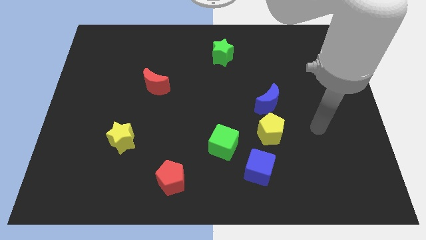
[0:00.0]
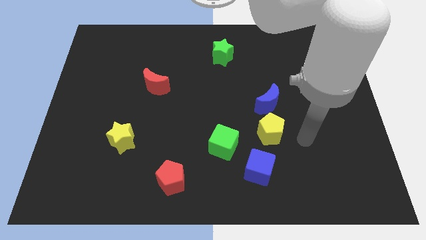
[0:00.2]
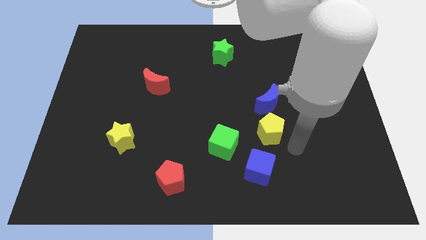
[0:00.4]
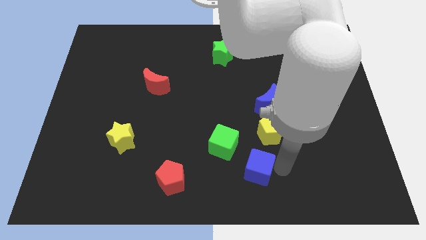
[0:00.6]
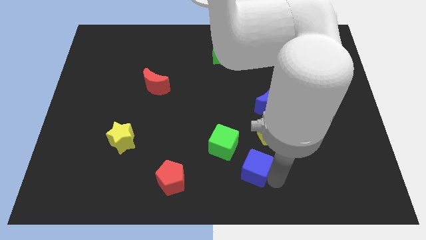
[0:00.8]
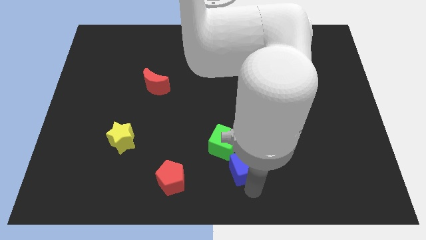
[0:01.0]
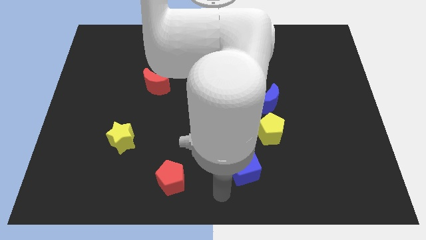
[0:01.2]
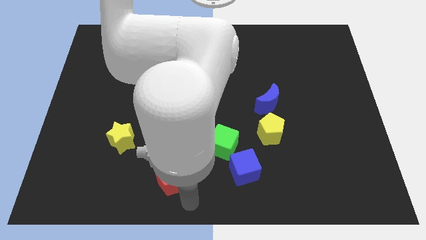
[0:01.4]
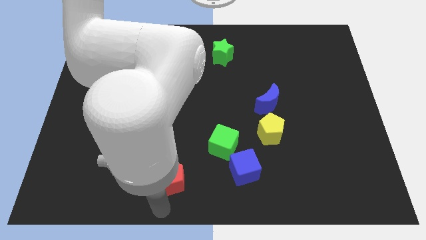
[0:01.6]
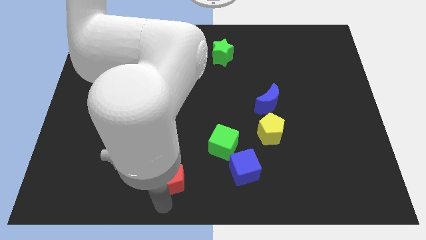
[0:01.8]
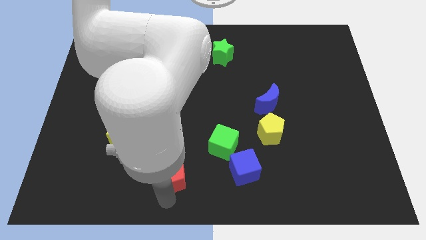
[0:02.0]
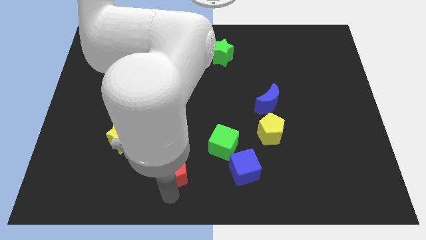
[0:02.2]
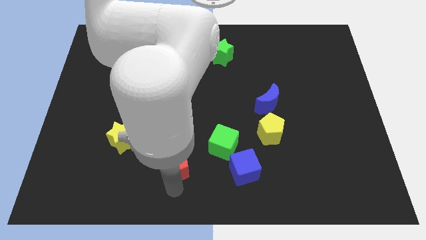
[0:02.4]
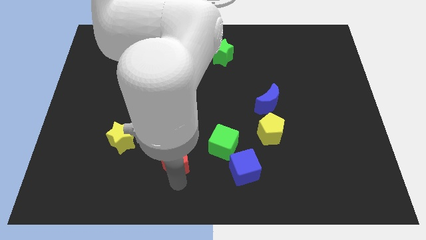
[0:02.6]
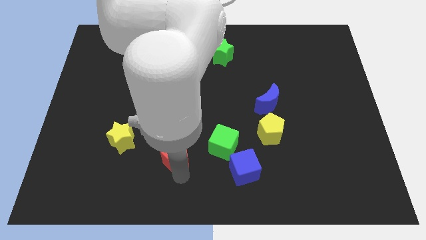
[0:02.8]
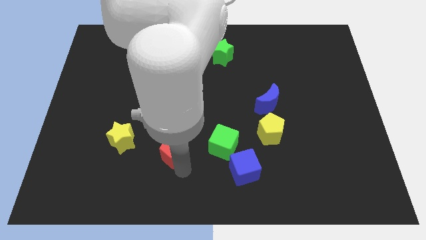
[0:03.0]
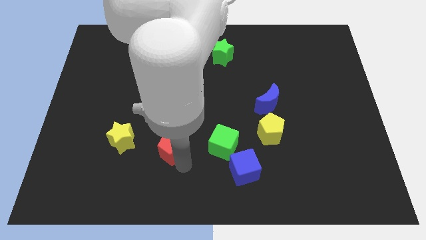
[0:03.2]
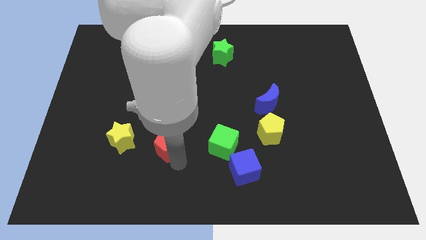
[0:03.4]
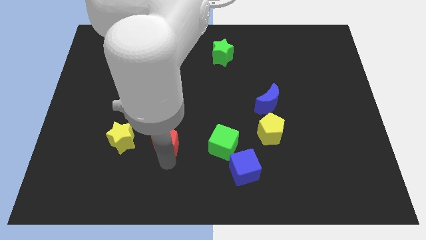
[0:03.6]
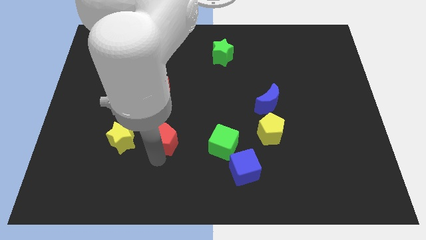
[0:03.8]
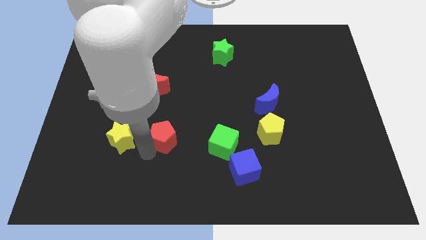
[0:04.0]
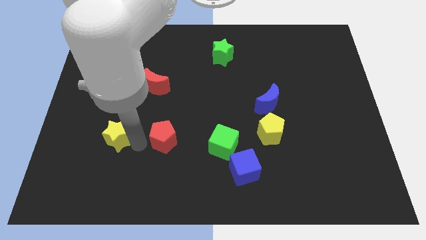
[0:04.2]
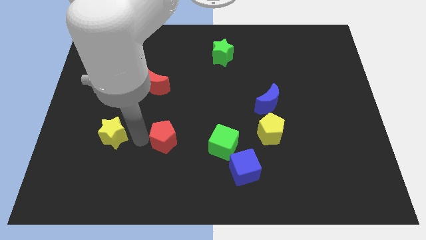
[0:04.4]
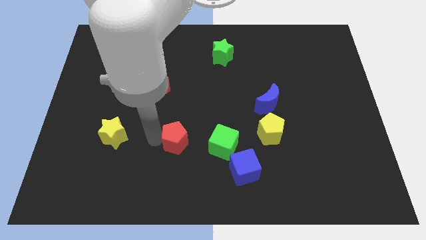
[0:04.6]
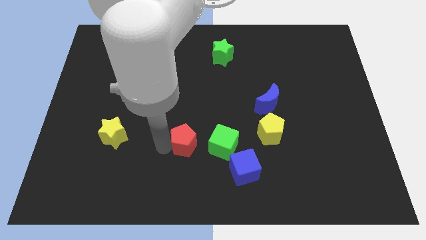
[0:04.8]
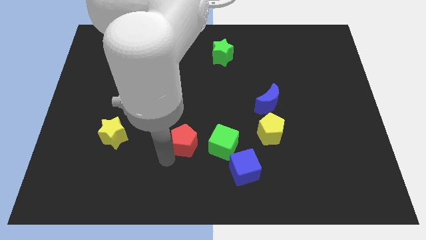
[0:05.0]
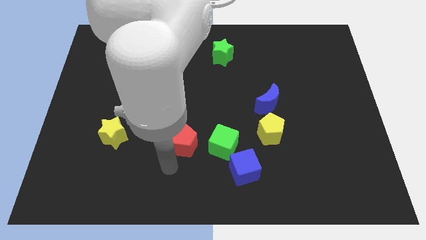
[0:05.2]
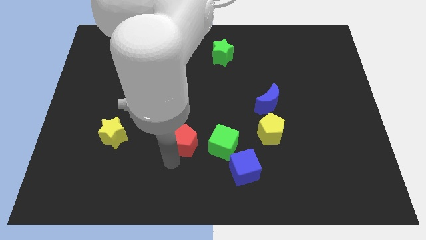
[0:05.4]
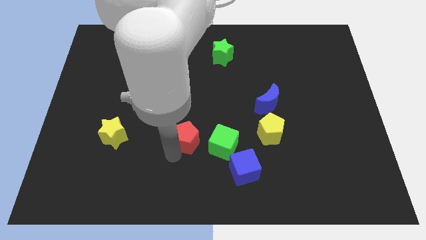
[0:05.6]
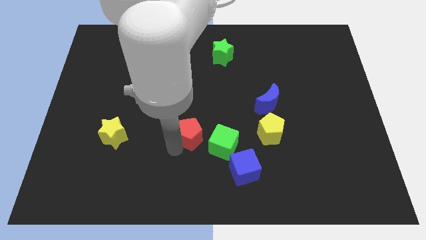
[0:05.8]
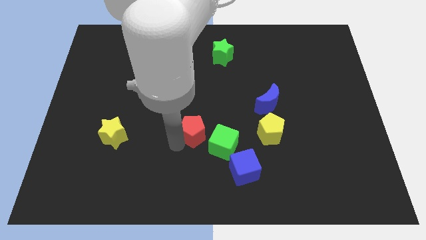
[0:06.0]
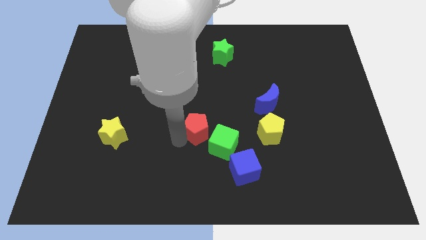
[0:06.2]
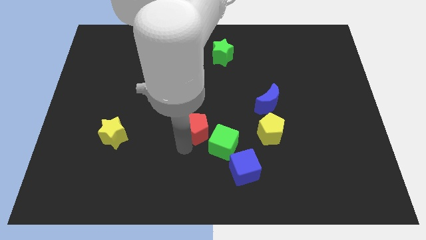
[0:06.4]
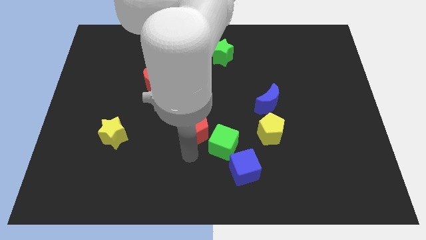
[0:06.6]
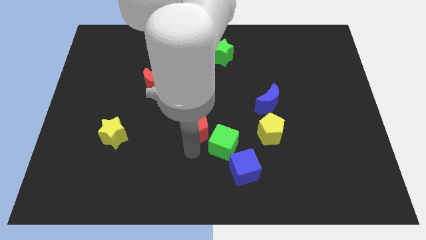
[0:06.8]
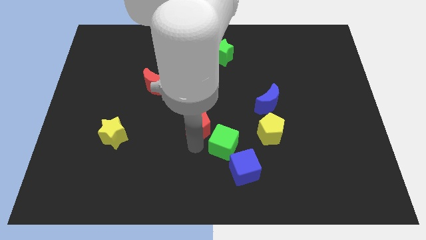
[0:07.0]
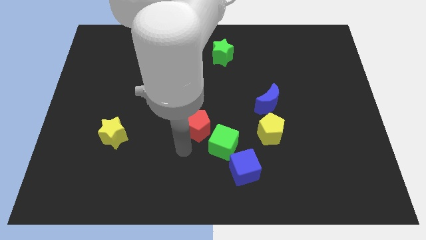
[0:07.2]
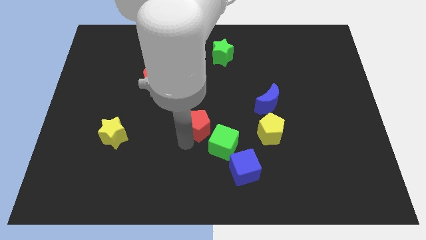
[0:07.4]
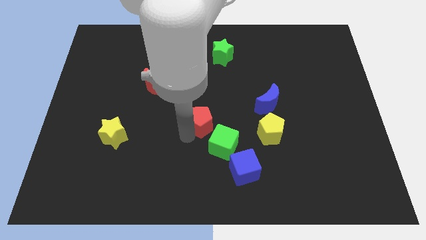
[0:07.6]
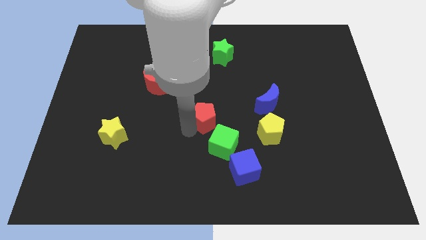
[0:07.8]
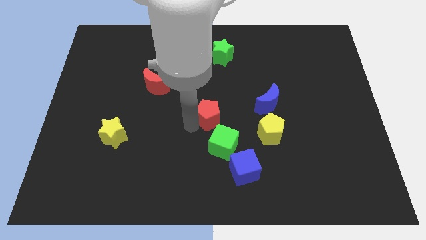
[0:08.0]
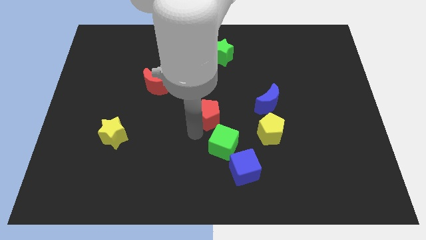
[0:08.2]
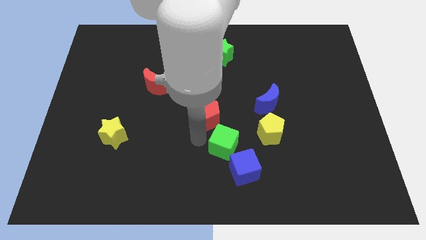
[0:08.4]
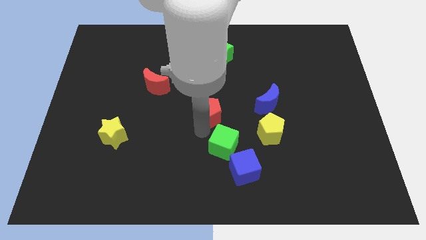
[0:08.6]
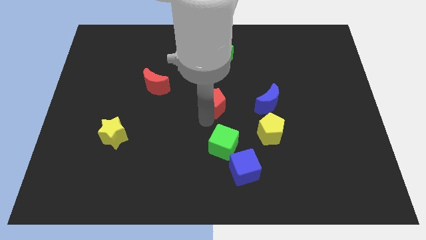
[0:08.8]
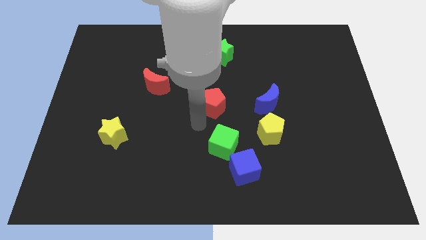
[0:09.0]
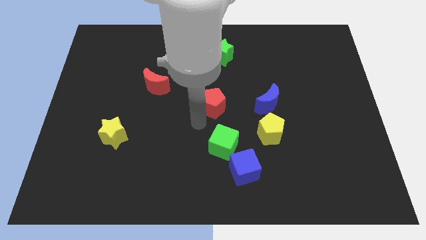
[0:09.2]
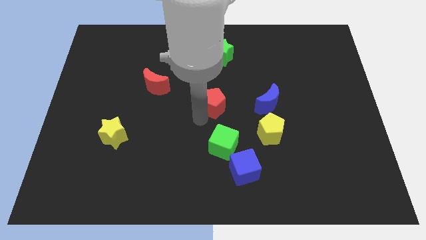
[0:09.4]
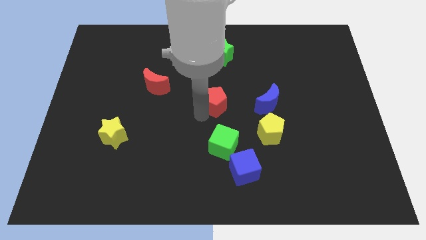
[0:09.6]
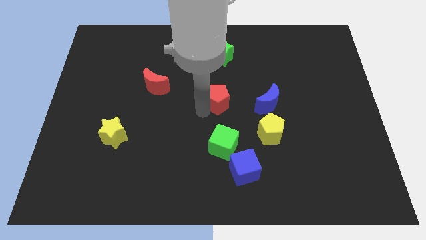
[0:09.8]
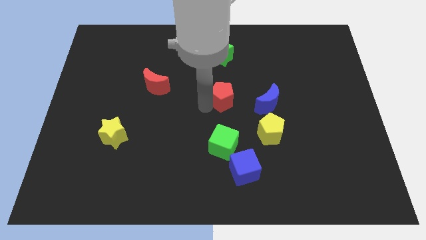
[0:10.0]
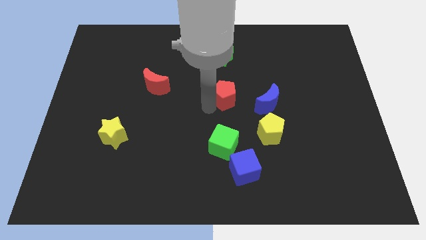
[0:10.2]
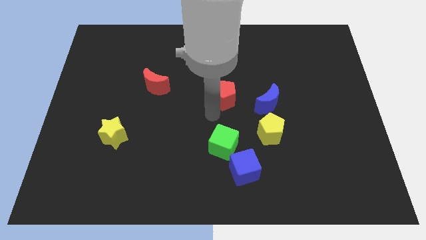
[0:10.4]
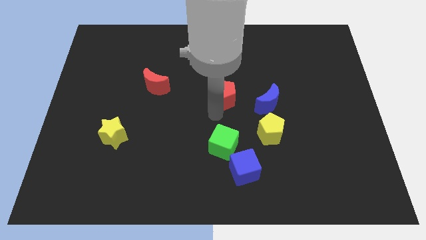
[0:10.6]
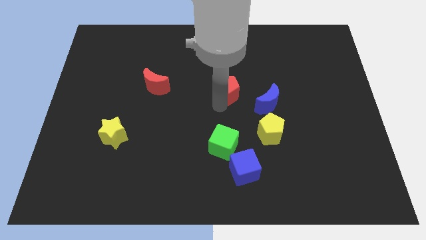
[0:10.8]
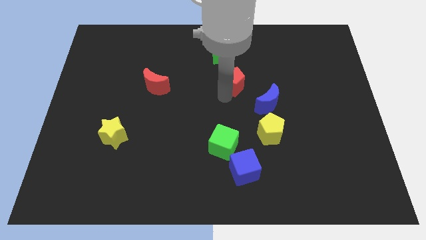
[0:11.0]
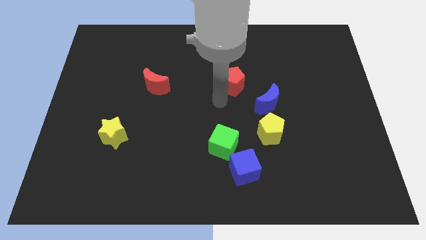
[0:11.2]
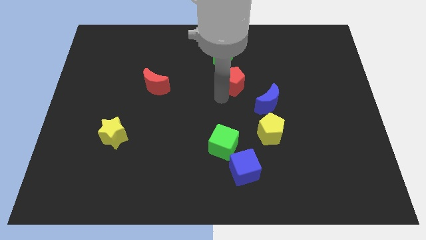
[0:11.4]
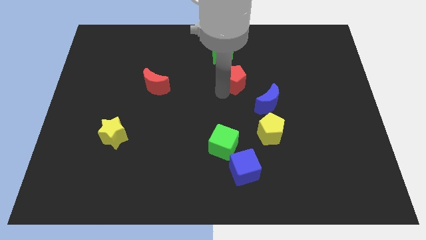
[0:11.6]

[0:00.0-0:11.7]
slide the red pentagon to the bottom right side of the green star

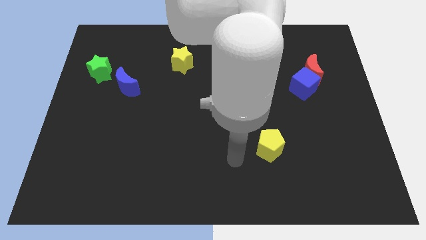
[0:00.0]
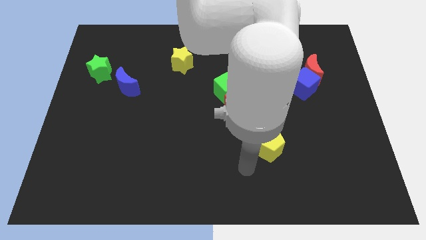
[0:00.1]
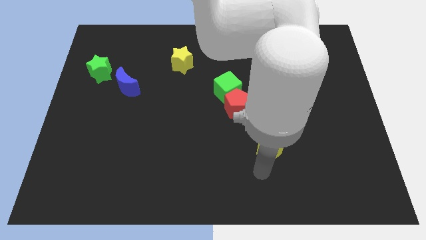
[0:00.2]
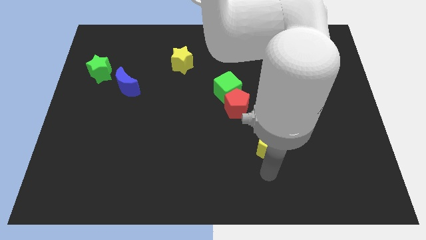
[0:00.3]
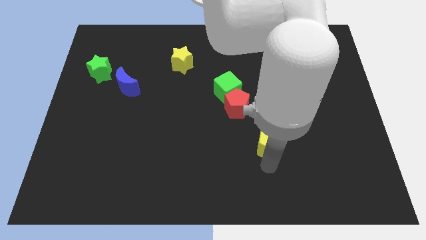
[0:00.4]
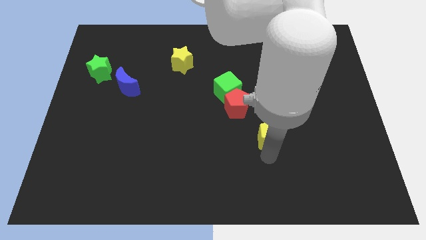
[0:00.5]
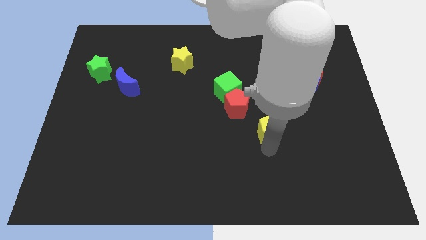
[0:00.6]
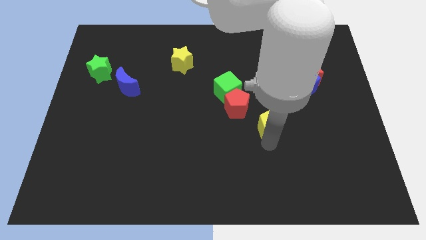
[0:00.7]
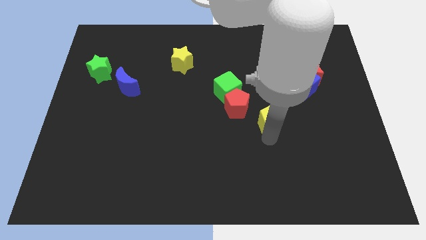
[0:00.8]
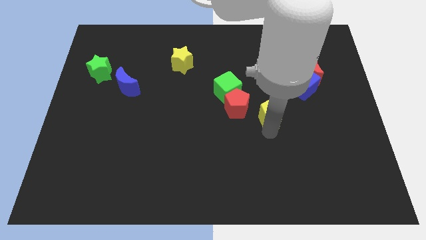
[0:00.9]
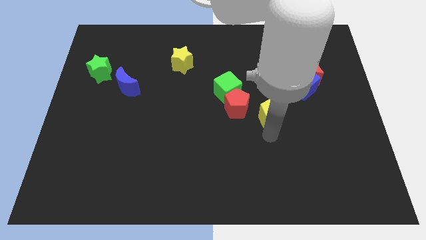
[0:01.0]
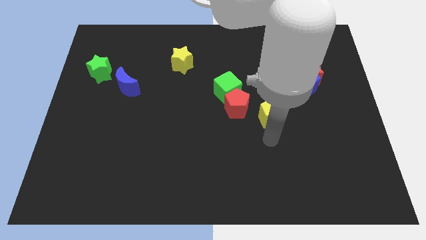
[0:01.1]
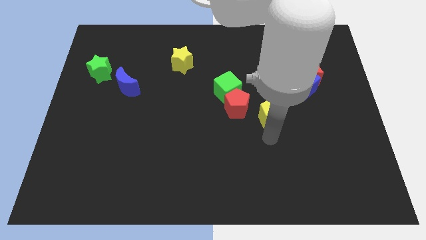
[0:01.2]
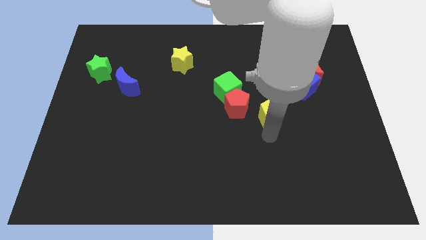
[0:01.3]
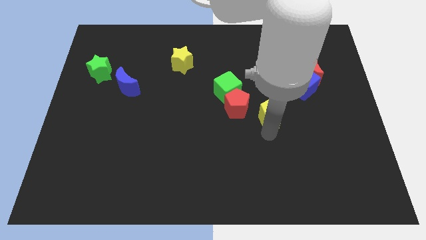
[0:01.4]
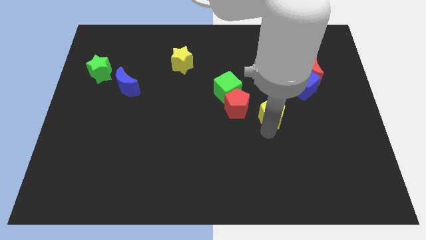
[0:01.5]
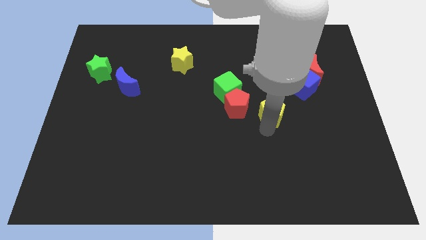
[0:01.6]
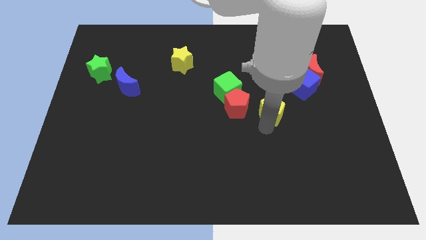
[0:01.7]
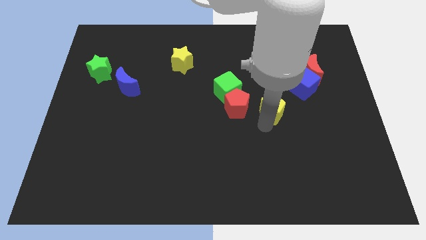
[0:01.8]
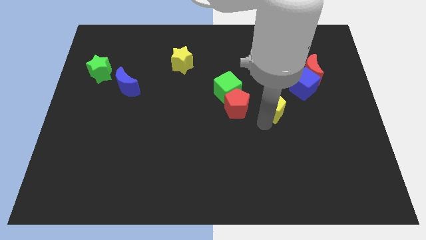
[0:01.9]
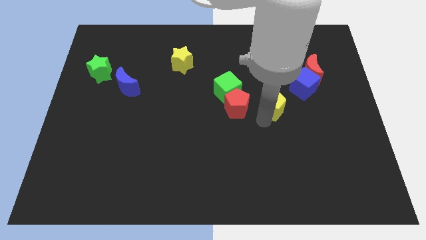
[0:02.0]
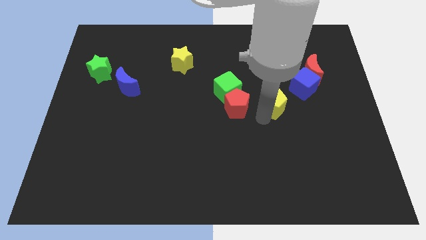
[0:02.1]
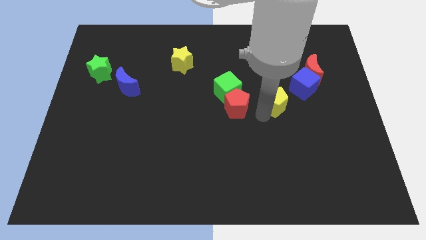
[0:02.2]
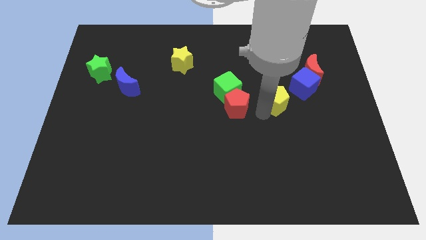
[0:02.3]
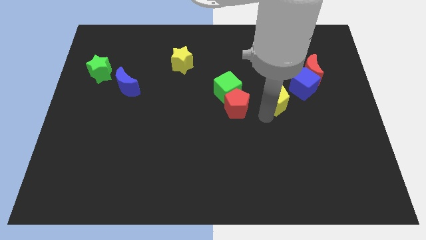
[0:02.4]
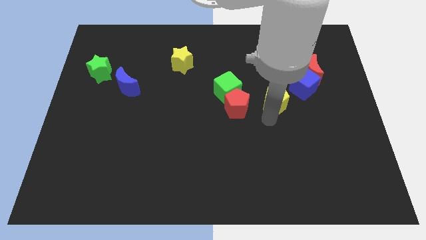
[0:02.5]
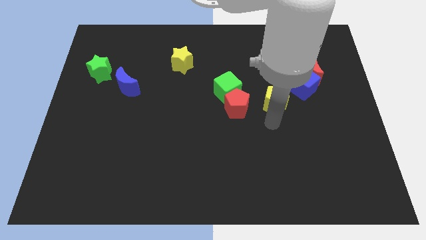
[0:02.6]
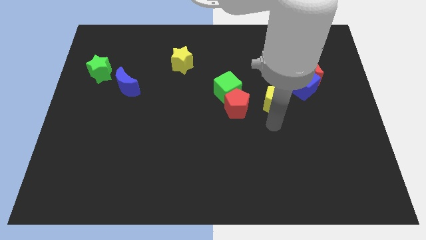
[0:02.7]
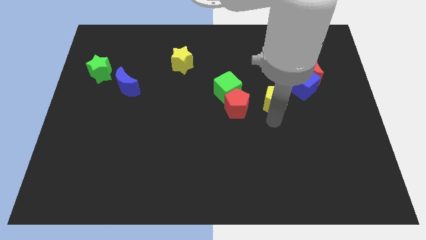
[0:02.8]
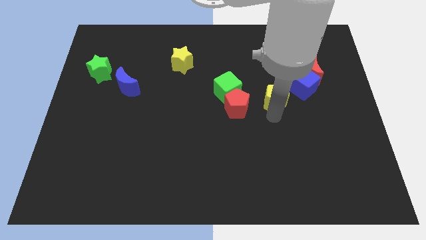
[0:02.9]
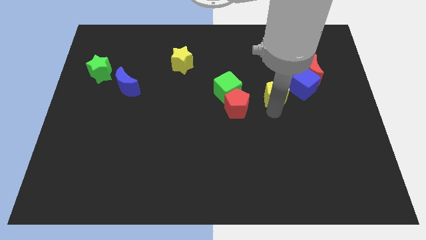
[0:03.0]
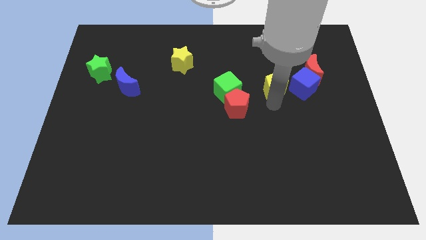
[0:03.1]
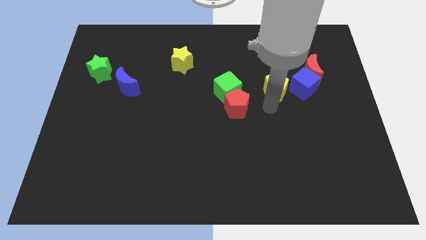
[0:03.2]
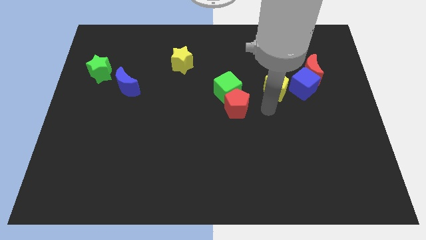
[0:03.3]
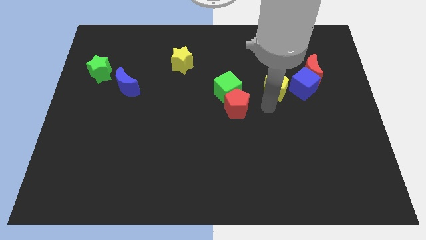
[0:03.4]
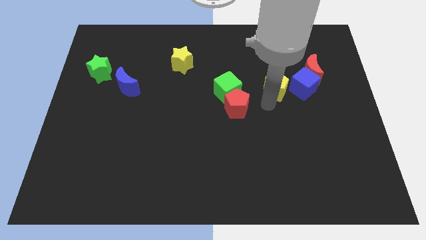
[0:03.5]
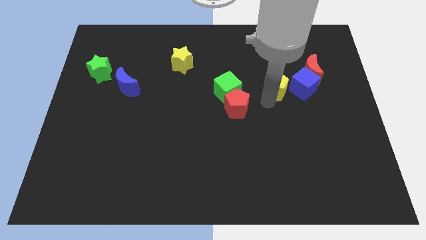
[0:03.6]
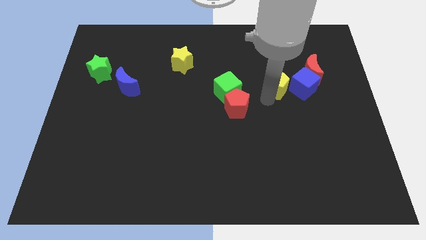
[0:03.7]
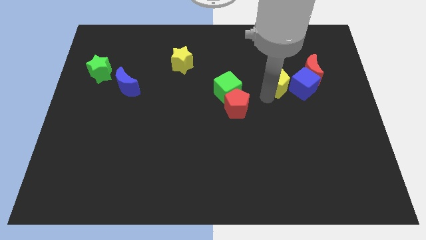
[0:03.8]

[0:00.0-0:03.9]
put the yellow pentagon to the top left of the blue cube
